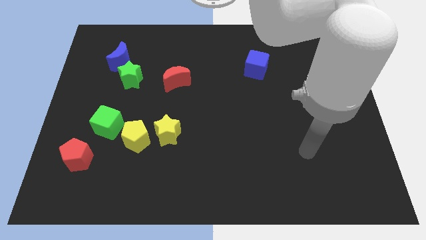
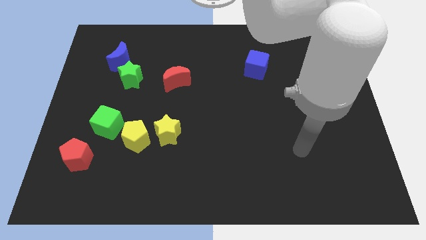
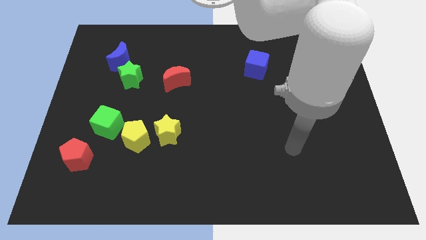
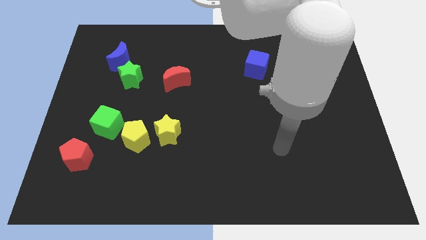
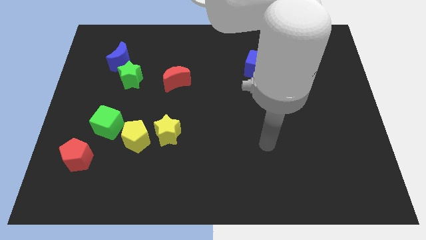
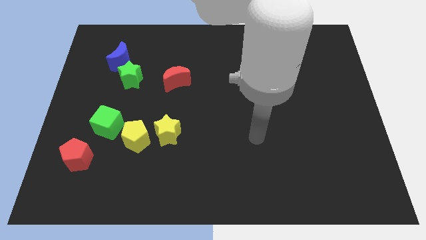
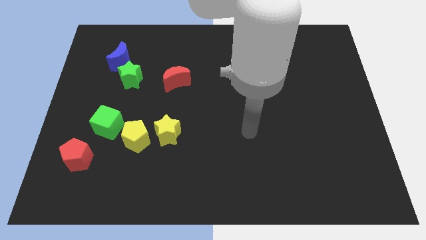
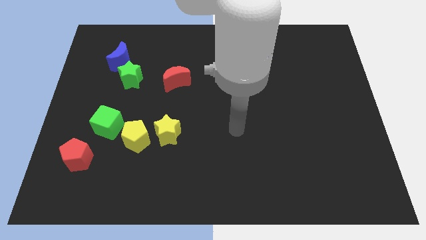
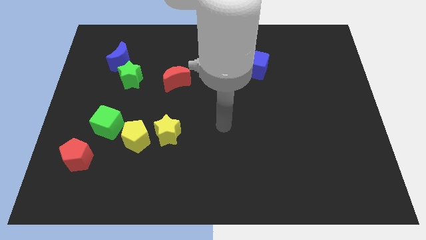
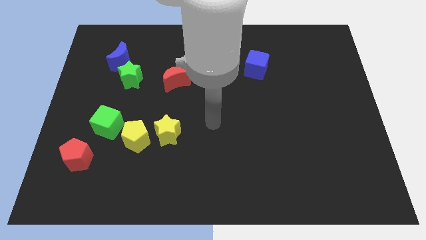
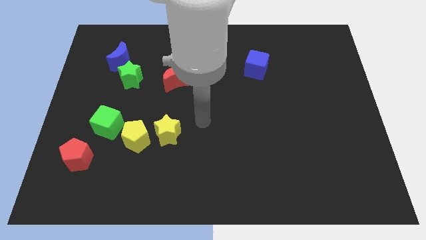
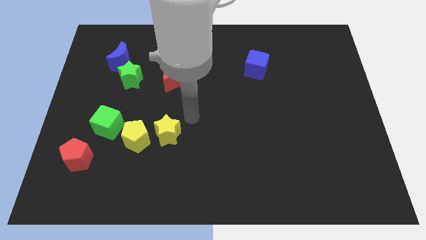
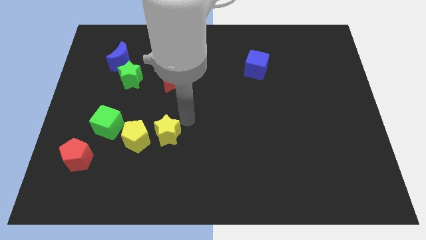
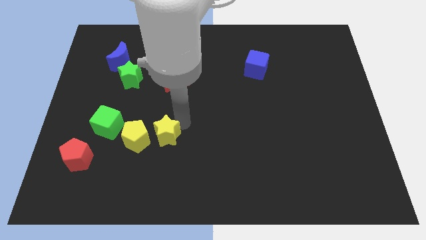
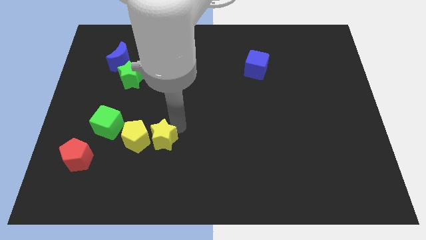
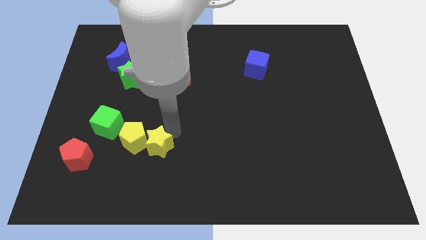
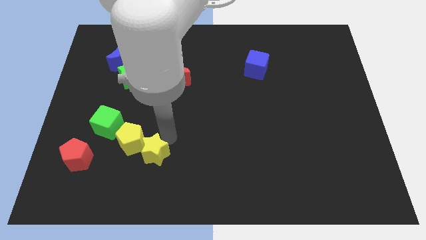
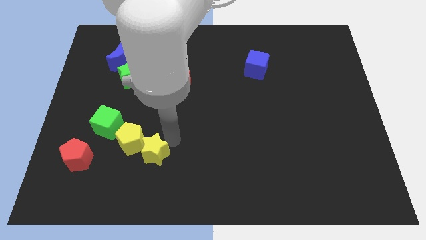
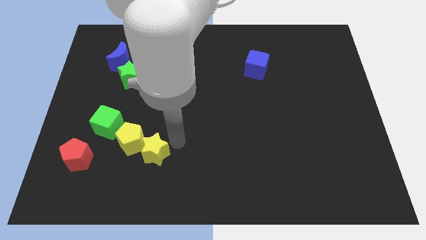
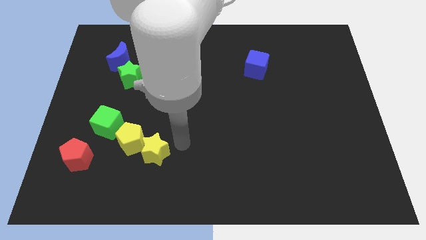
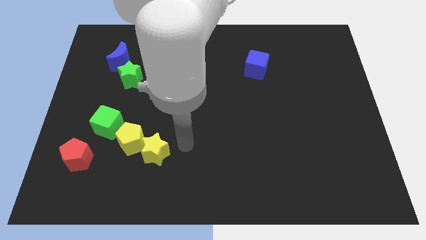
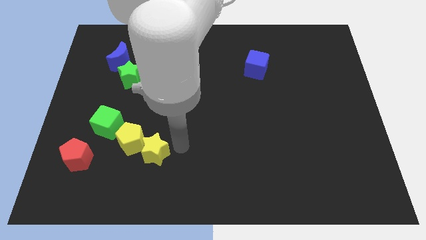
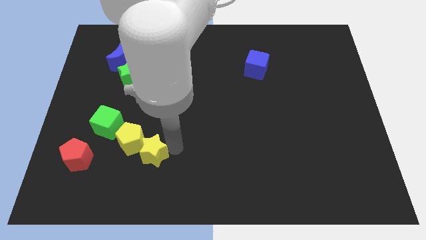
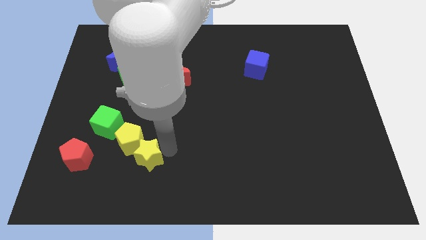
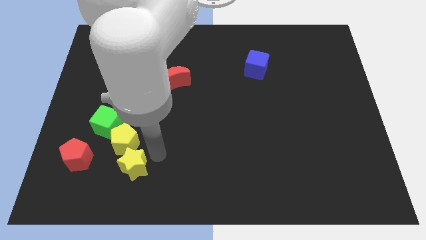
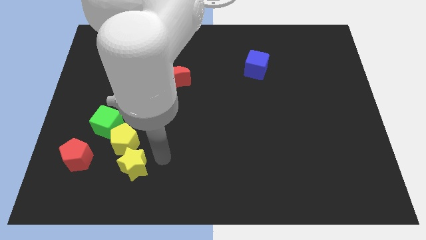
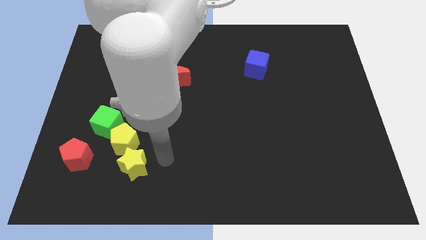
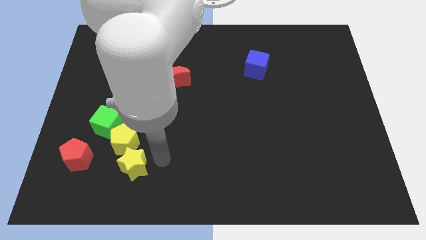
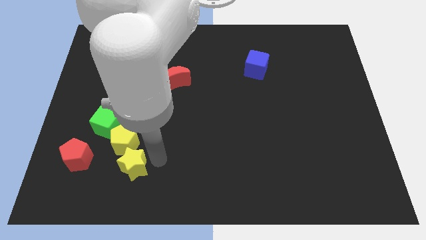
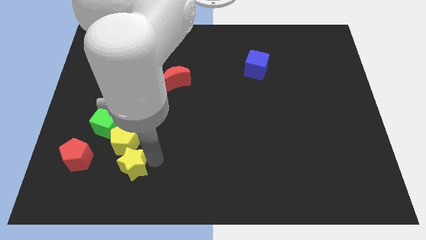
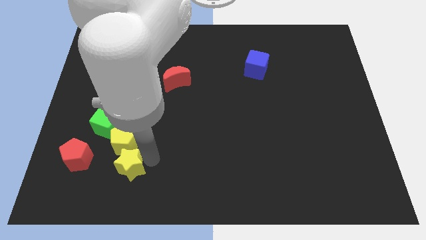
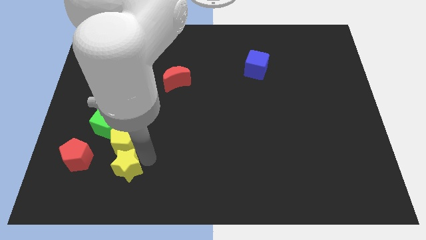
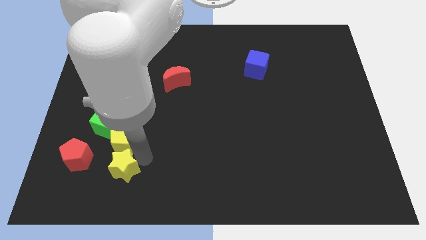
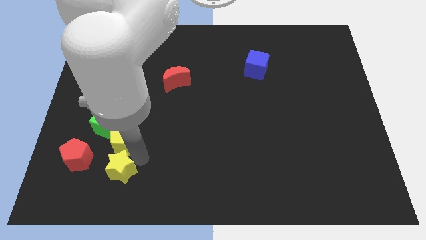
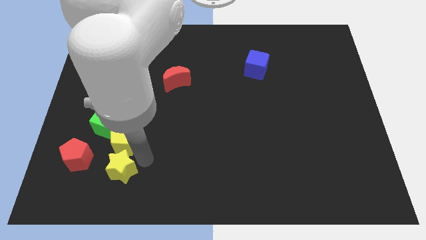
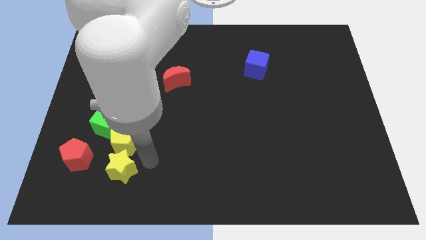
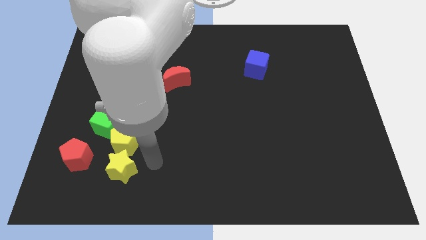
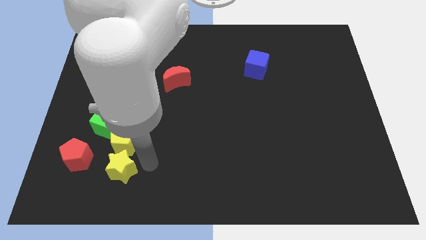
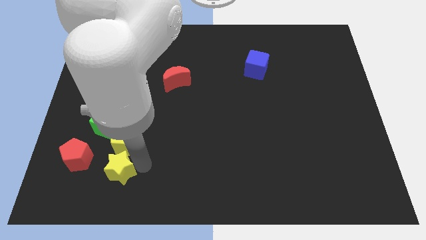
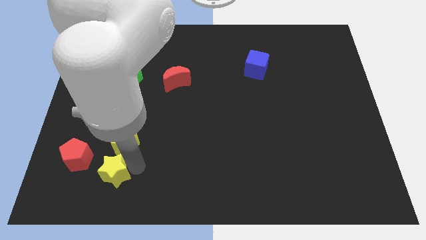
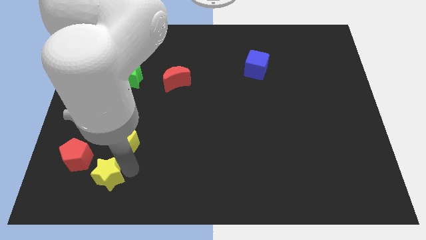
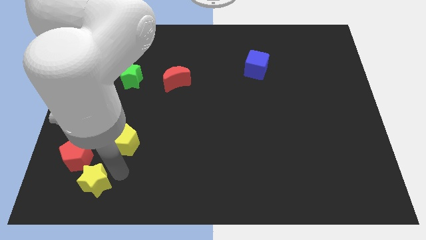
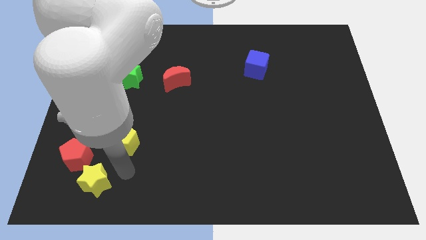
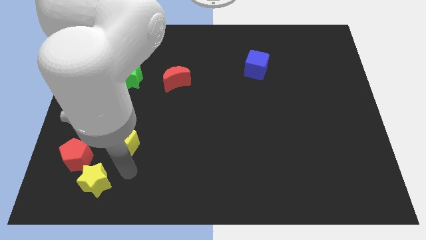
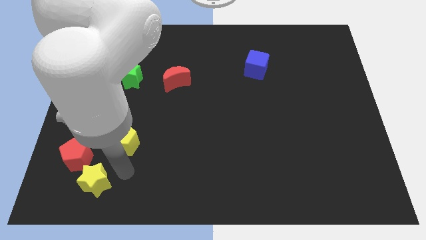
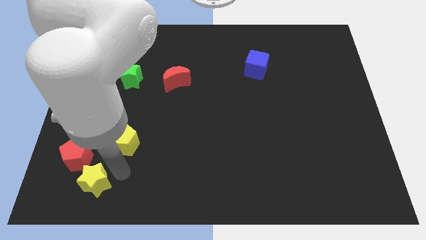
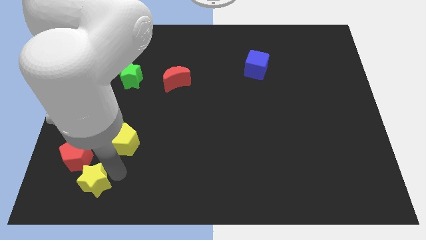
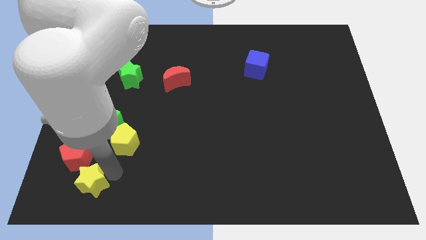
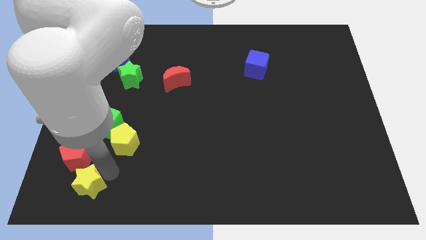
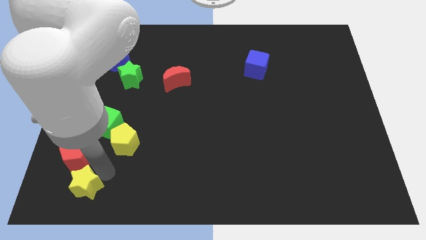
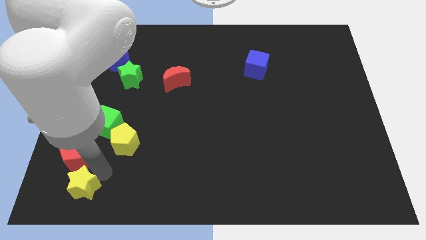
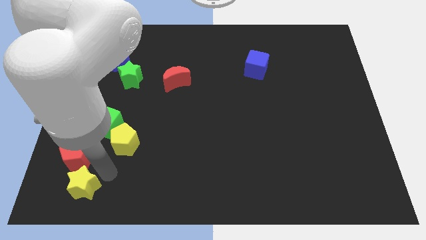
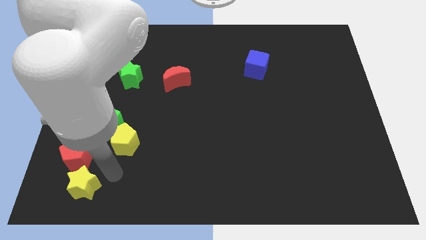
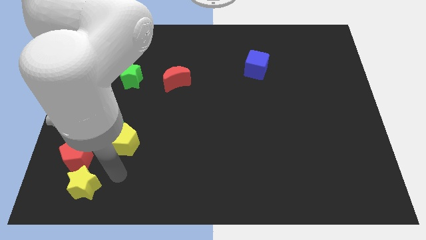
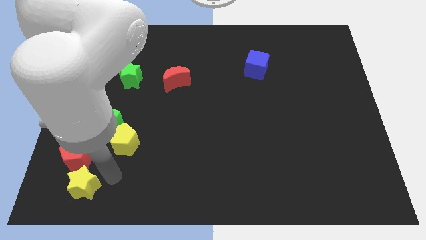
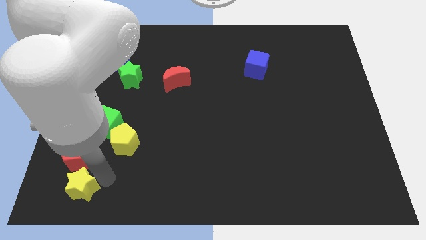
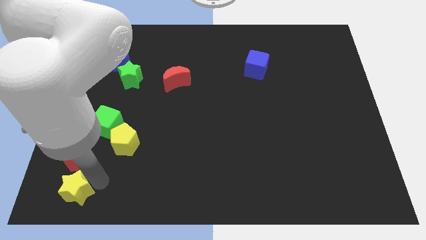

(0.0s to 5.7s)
push the yellow star to the bottom left of the board
